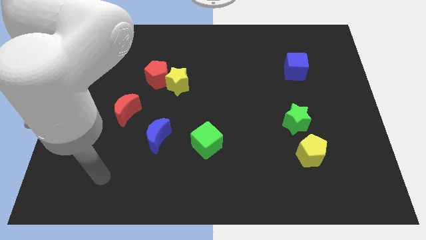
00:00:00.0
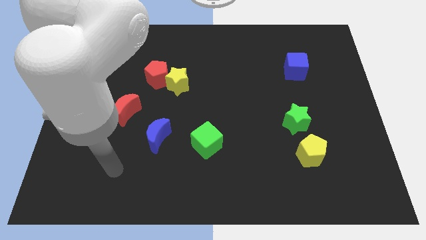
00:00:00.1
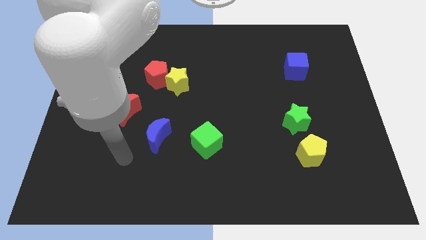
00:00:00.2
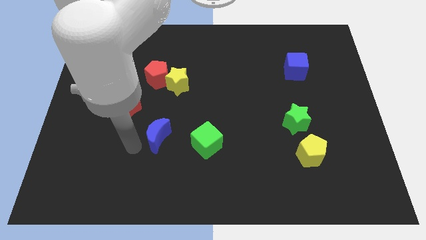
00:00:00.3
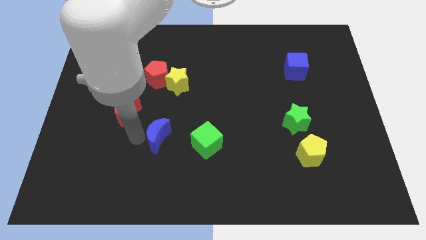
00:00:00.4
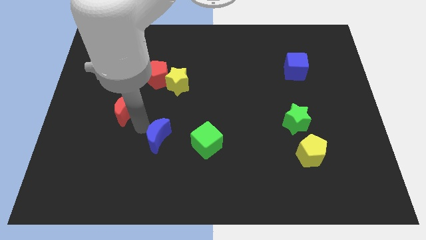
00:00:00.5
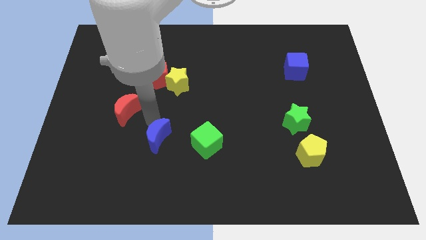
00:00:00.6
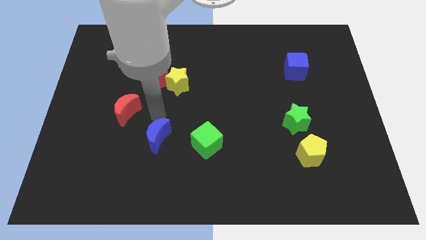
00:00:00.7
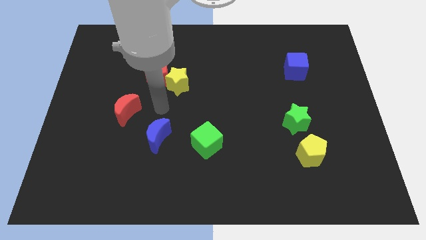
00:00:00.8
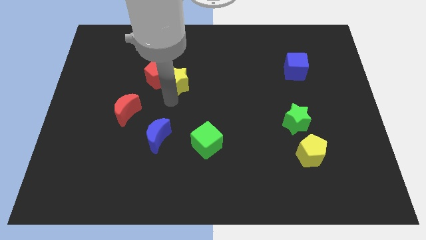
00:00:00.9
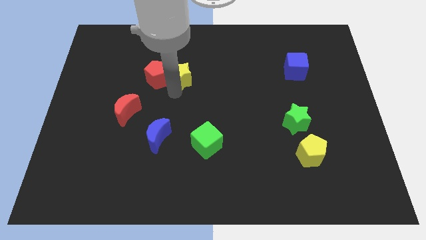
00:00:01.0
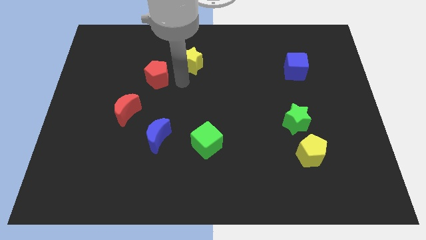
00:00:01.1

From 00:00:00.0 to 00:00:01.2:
separate the red pentagon from the yellow star

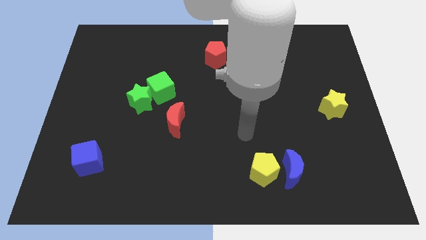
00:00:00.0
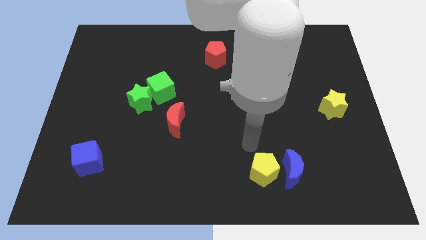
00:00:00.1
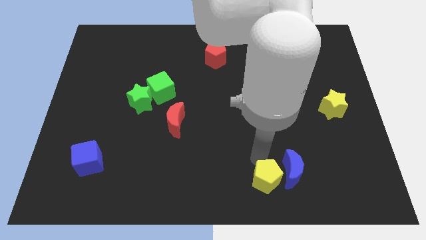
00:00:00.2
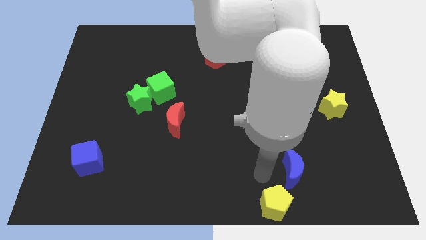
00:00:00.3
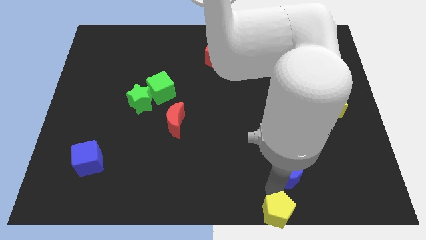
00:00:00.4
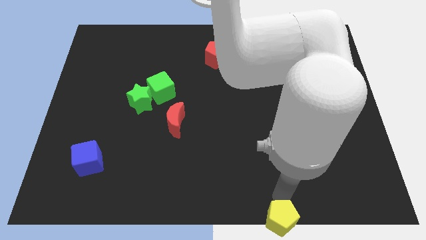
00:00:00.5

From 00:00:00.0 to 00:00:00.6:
pull the blue moon apart from the yellow pentagon

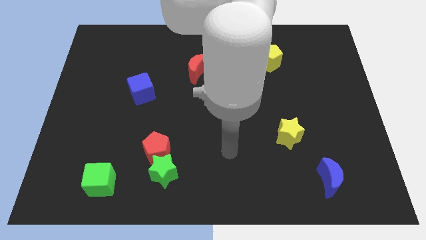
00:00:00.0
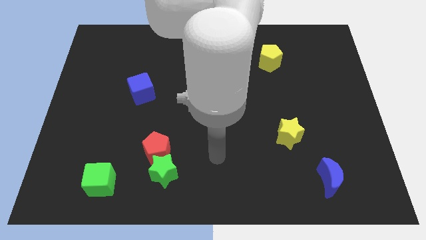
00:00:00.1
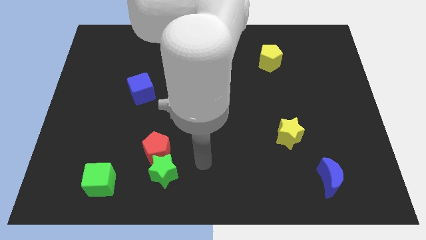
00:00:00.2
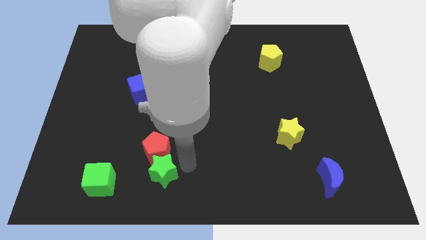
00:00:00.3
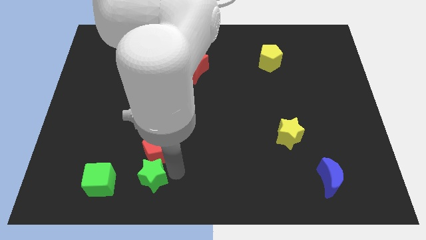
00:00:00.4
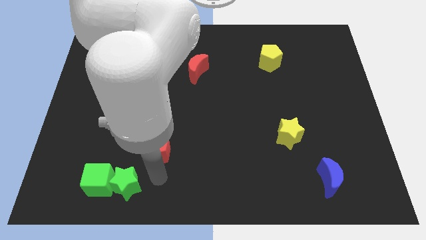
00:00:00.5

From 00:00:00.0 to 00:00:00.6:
separate the red pentagon from the green star

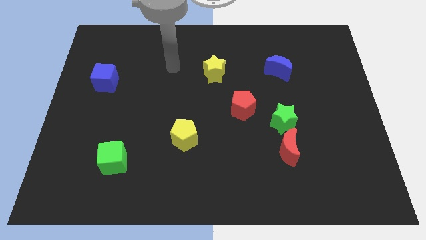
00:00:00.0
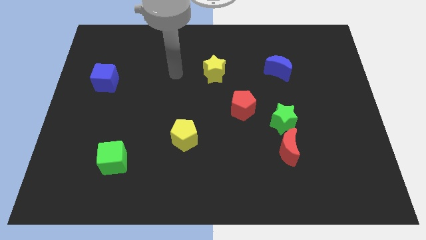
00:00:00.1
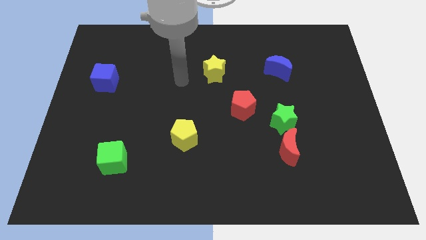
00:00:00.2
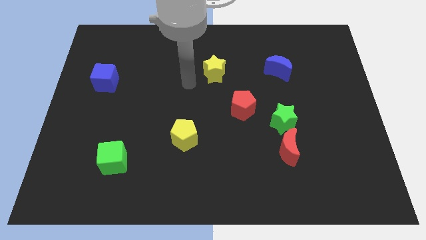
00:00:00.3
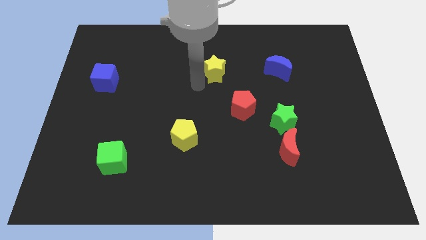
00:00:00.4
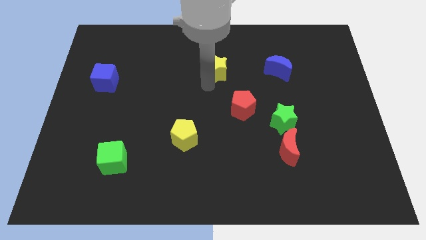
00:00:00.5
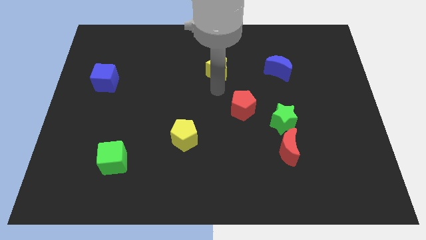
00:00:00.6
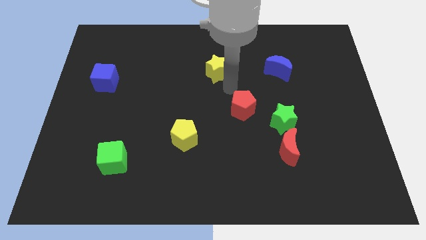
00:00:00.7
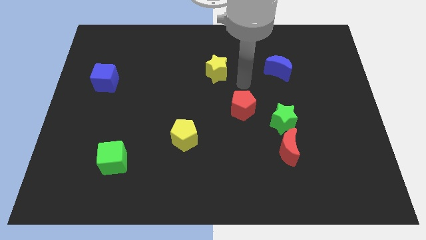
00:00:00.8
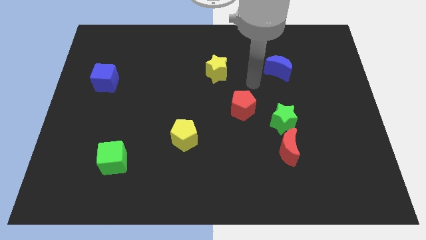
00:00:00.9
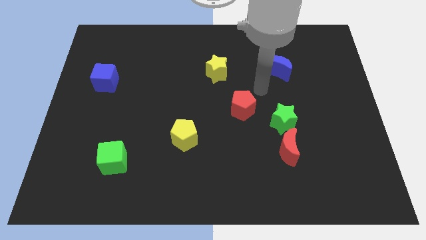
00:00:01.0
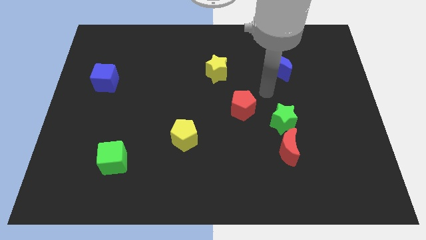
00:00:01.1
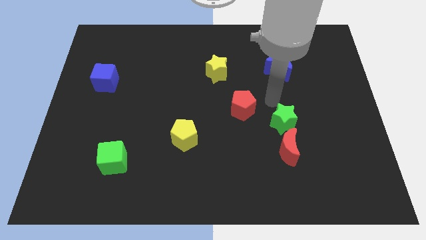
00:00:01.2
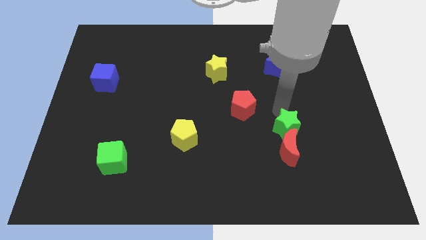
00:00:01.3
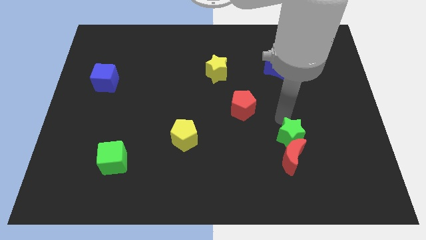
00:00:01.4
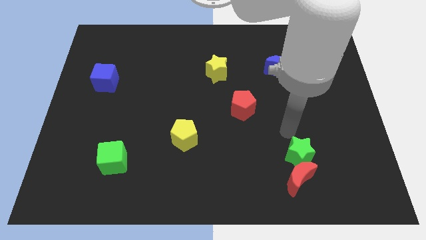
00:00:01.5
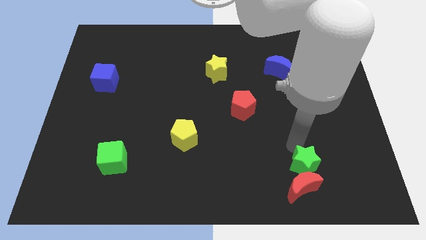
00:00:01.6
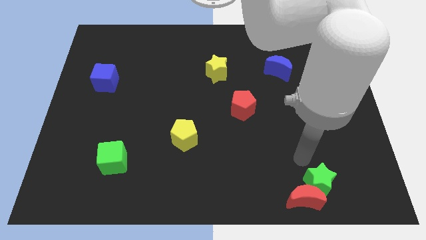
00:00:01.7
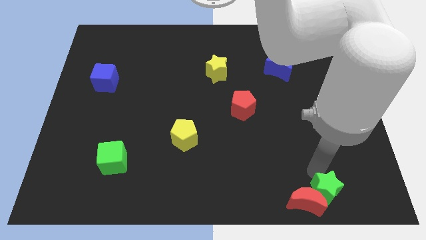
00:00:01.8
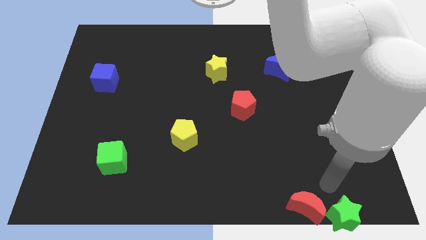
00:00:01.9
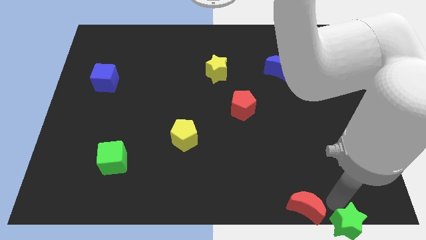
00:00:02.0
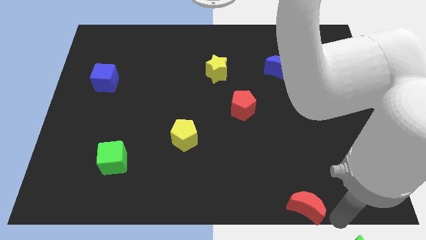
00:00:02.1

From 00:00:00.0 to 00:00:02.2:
move the red moon away from the green star

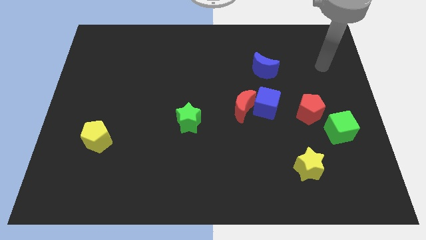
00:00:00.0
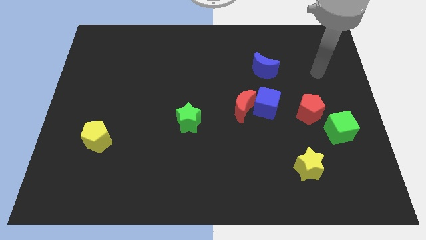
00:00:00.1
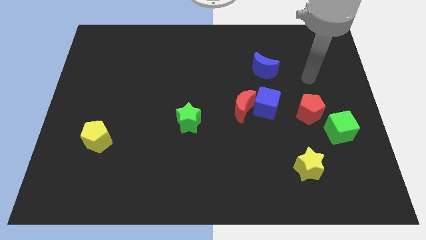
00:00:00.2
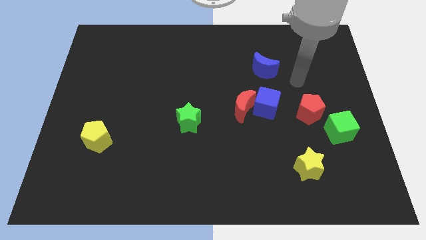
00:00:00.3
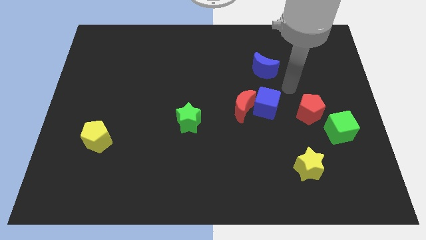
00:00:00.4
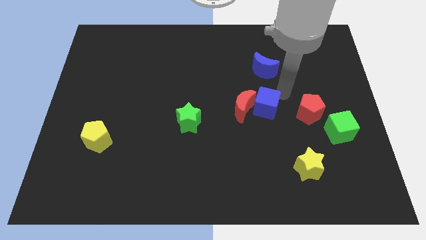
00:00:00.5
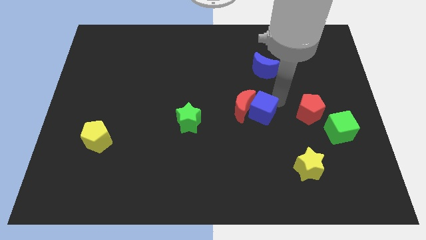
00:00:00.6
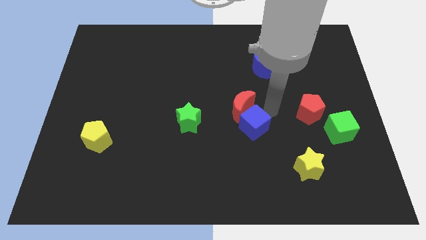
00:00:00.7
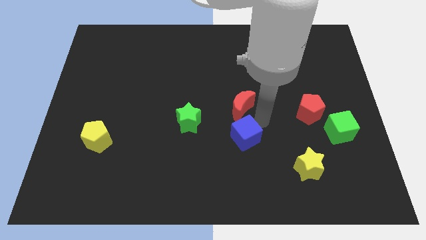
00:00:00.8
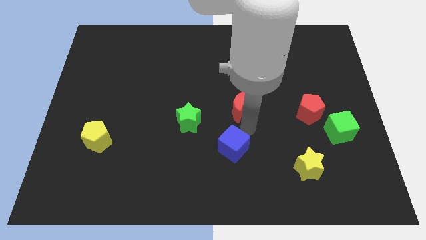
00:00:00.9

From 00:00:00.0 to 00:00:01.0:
separate the red moon from the blue cube

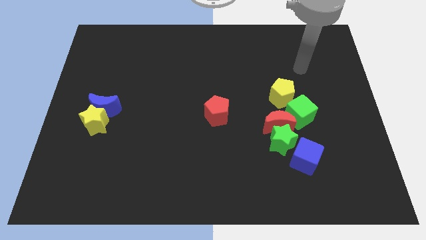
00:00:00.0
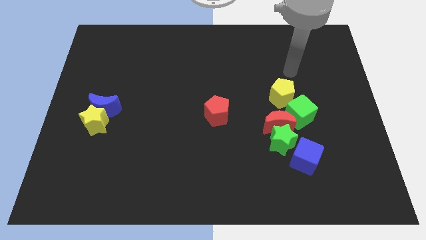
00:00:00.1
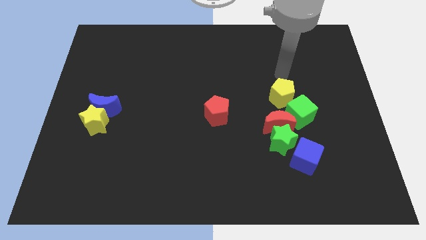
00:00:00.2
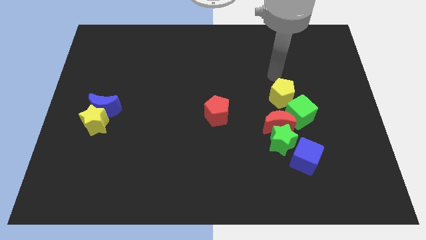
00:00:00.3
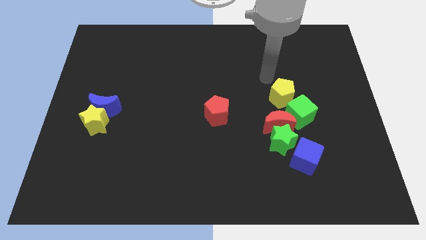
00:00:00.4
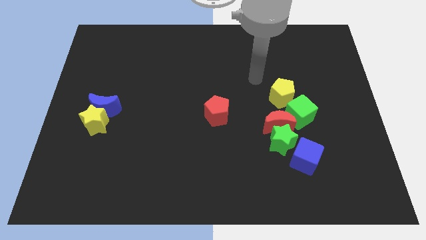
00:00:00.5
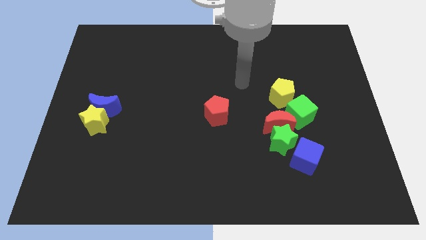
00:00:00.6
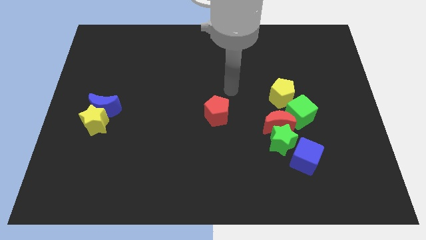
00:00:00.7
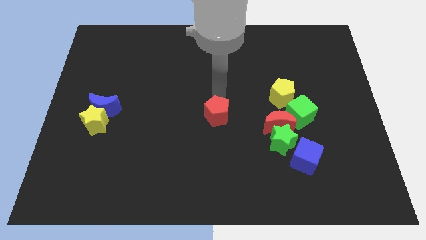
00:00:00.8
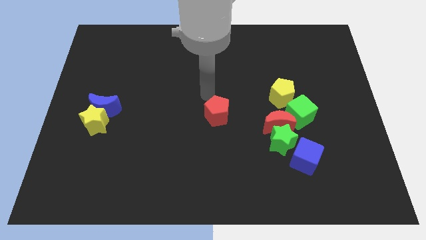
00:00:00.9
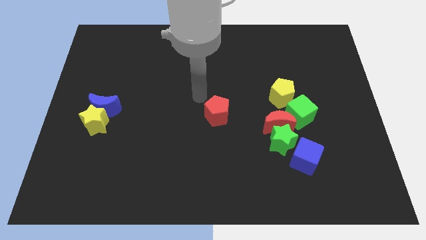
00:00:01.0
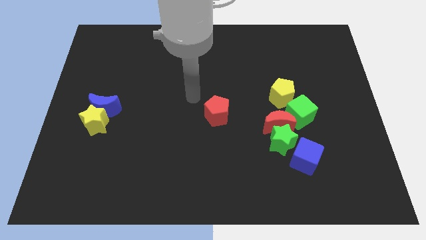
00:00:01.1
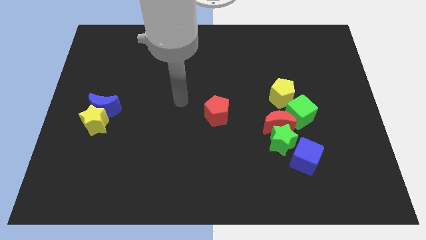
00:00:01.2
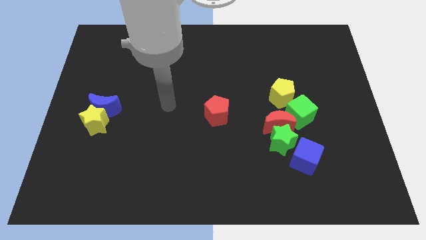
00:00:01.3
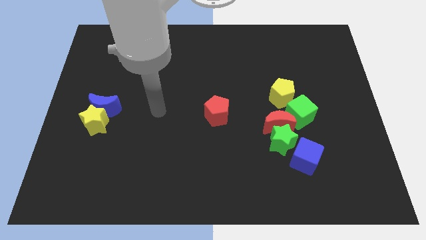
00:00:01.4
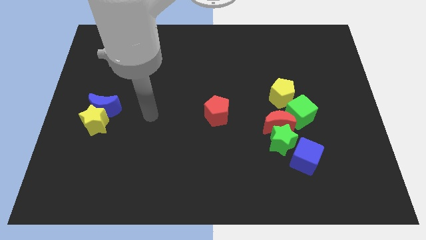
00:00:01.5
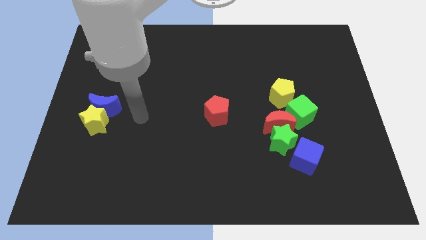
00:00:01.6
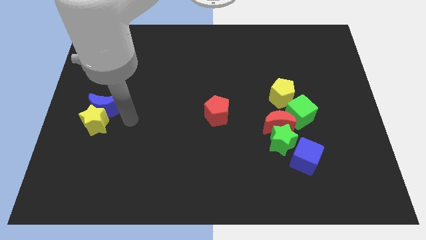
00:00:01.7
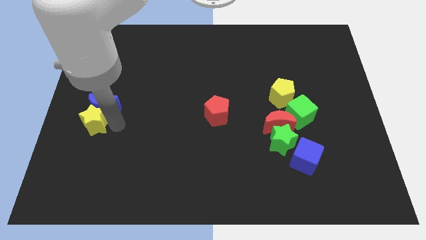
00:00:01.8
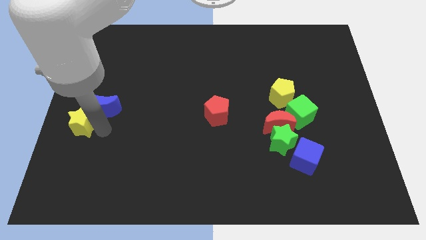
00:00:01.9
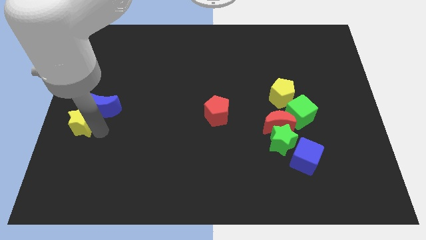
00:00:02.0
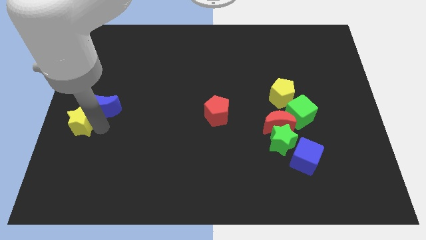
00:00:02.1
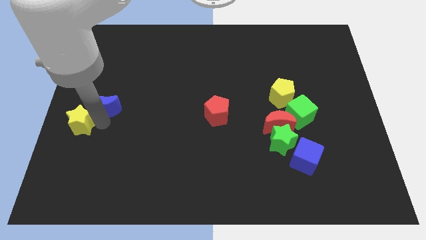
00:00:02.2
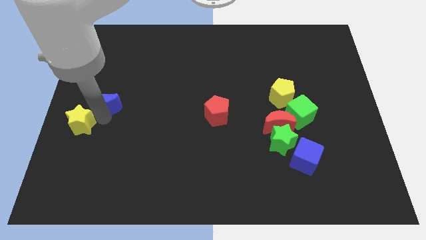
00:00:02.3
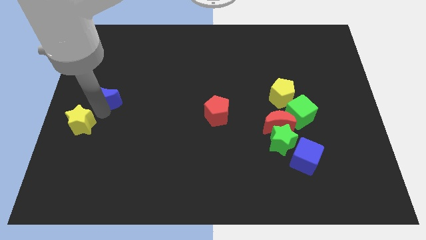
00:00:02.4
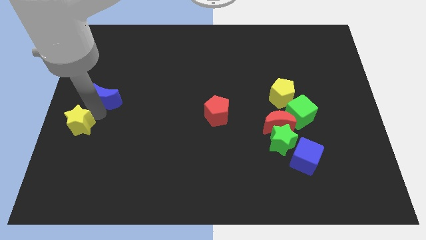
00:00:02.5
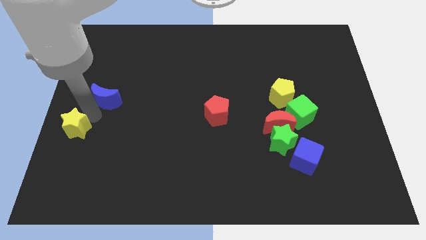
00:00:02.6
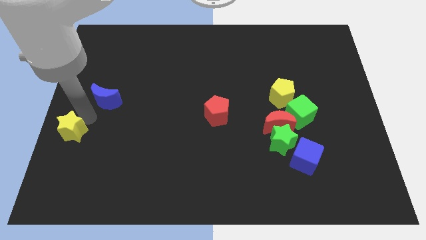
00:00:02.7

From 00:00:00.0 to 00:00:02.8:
separate the blue moon from the yellow star

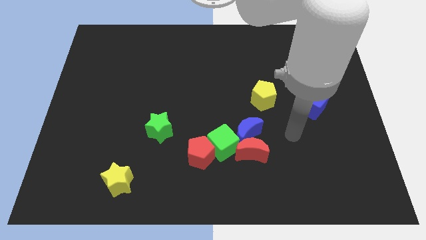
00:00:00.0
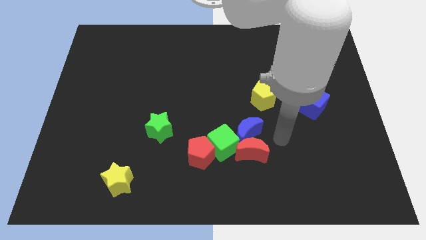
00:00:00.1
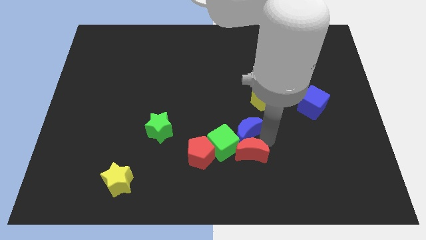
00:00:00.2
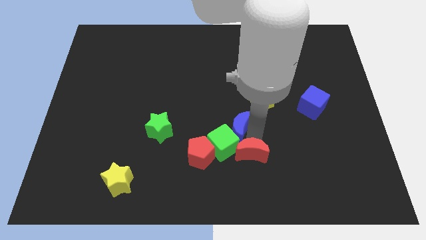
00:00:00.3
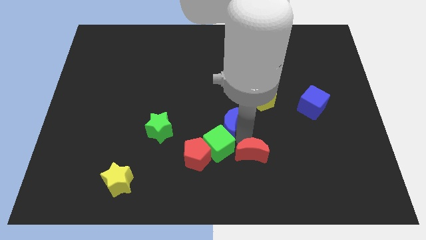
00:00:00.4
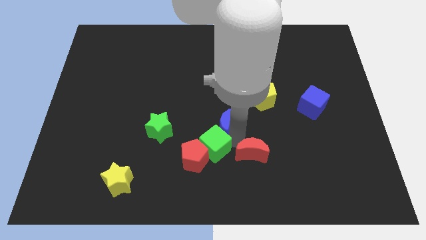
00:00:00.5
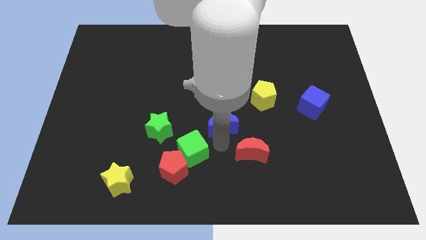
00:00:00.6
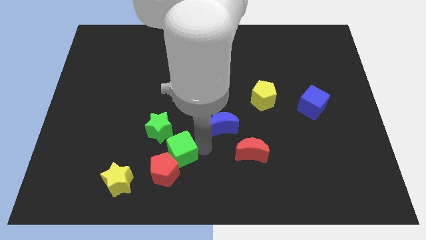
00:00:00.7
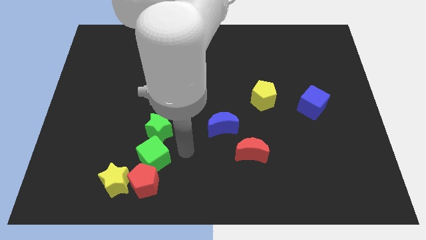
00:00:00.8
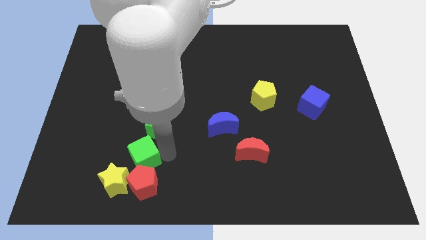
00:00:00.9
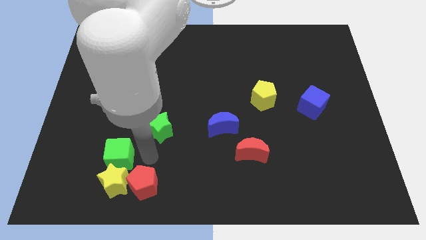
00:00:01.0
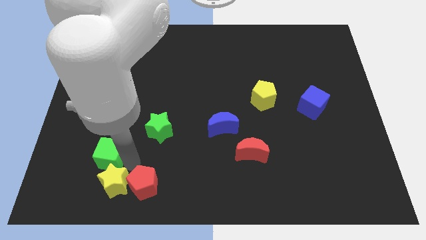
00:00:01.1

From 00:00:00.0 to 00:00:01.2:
pull the red pentagon apart from the green cube
